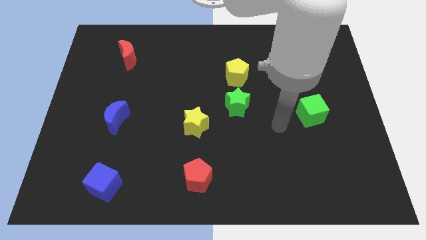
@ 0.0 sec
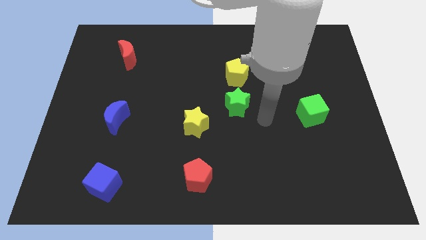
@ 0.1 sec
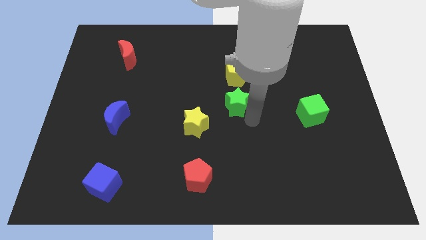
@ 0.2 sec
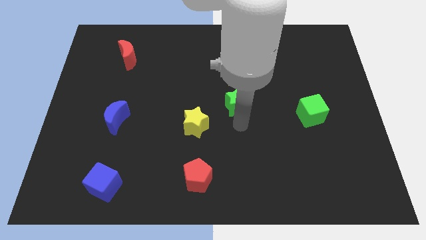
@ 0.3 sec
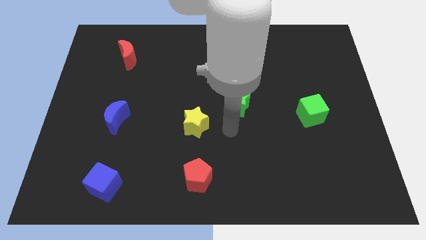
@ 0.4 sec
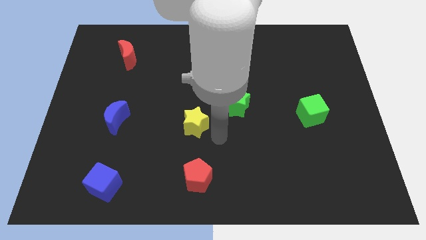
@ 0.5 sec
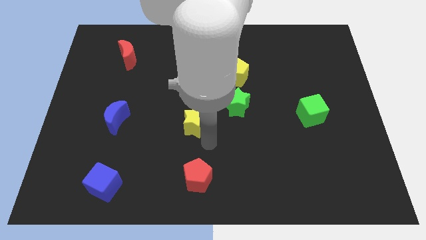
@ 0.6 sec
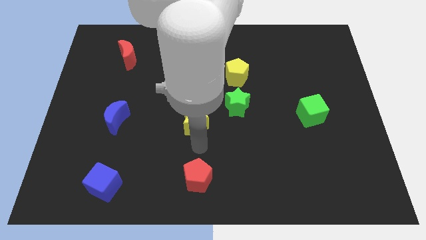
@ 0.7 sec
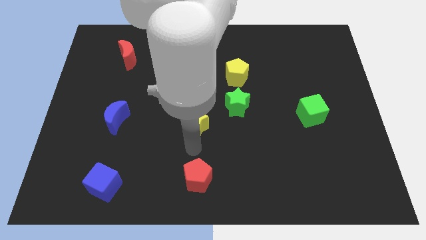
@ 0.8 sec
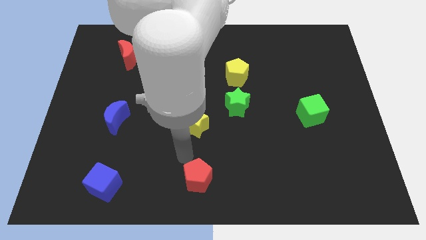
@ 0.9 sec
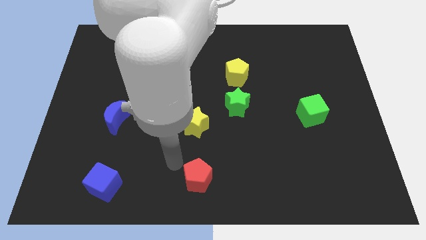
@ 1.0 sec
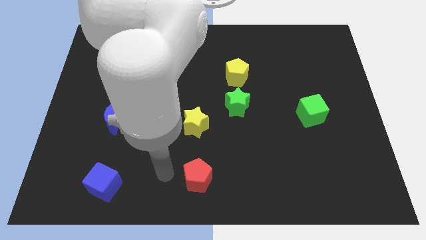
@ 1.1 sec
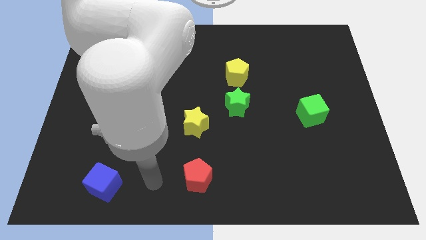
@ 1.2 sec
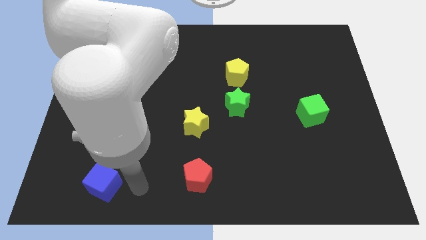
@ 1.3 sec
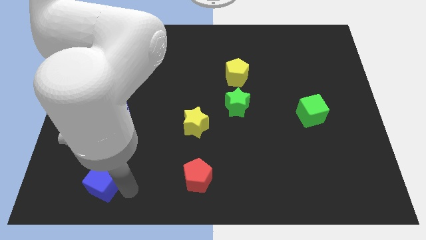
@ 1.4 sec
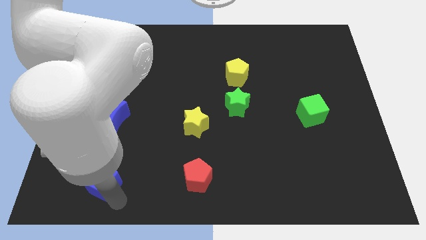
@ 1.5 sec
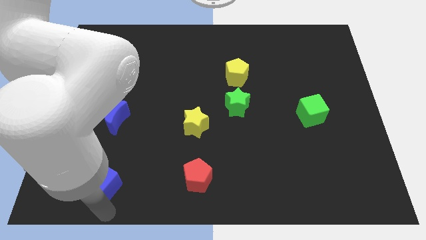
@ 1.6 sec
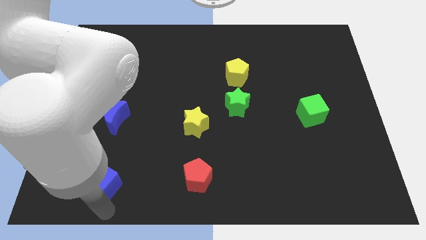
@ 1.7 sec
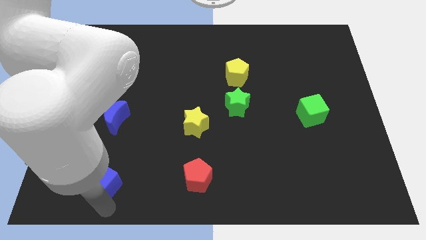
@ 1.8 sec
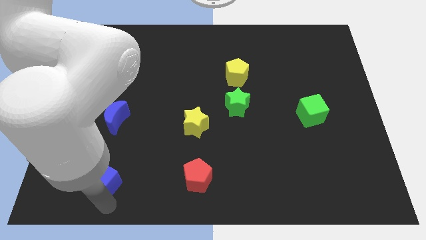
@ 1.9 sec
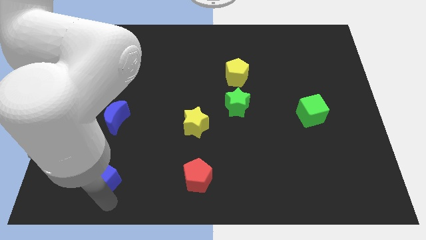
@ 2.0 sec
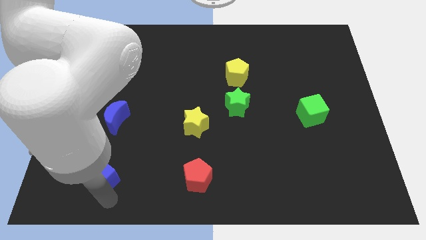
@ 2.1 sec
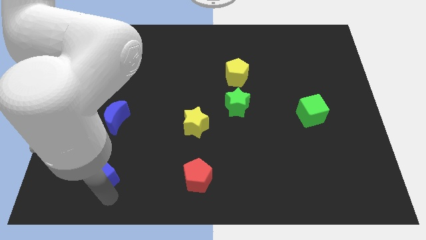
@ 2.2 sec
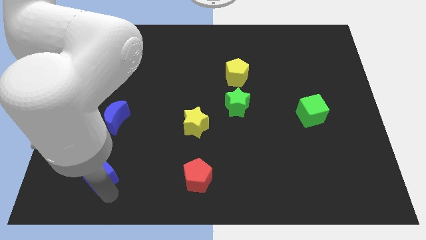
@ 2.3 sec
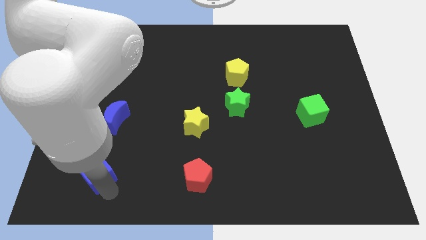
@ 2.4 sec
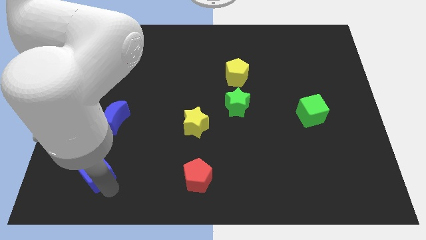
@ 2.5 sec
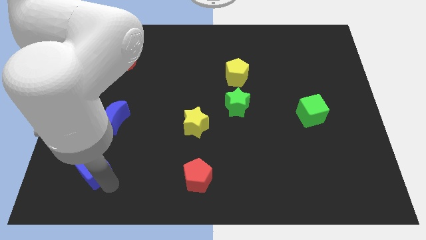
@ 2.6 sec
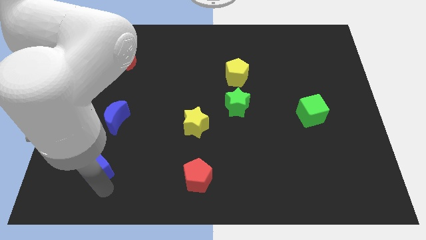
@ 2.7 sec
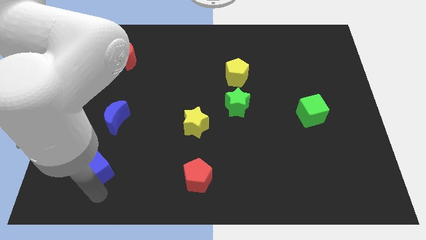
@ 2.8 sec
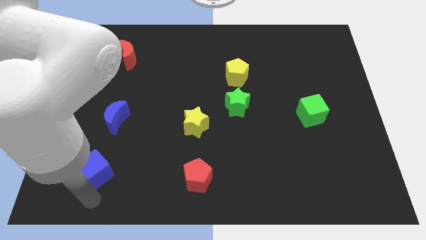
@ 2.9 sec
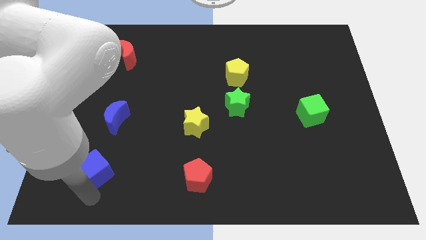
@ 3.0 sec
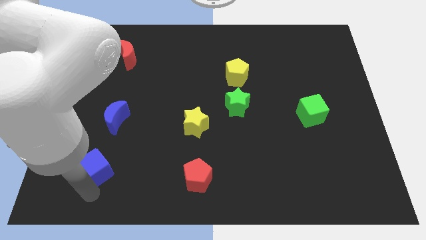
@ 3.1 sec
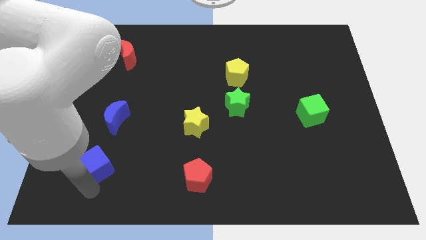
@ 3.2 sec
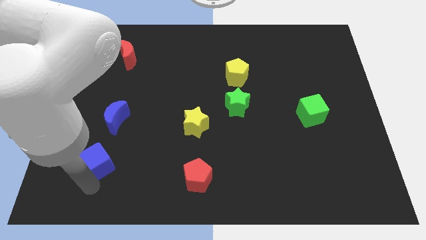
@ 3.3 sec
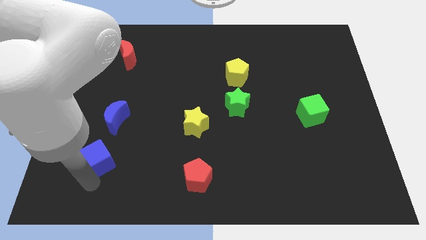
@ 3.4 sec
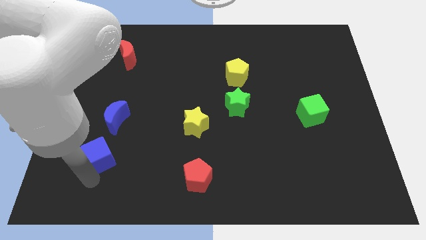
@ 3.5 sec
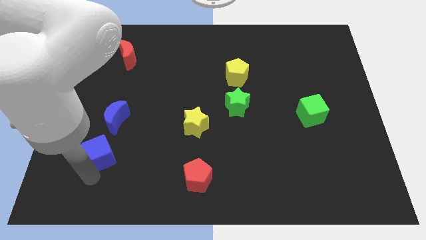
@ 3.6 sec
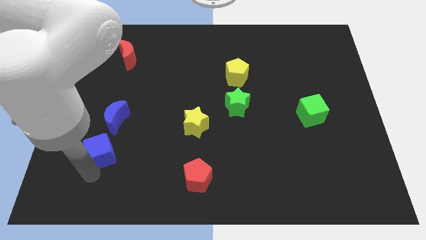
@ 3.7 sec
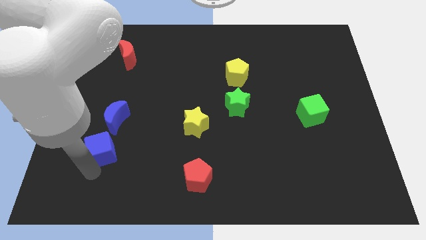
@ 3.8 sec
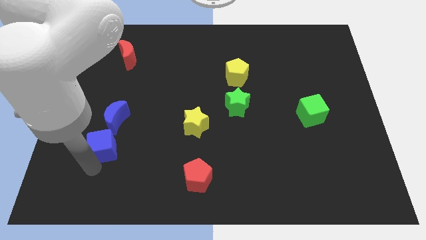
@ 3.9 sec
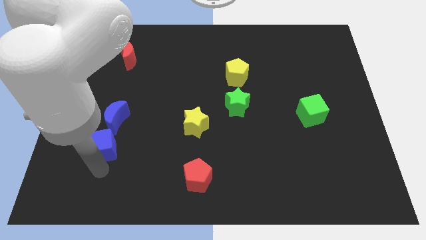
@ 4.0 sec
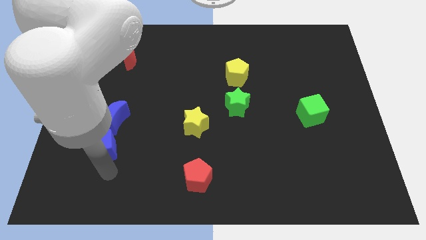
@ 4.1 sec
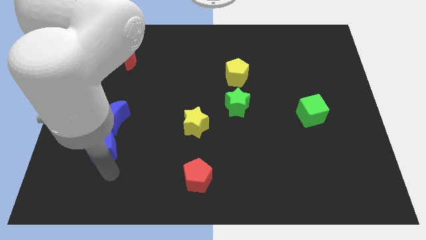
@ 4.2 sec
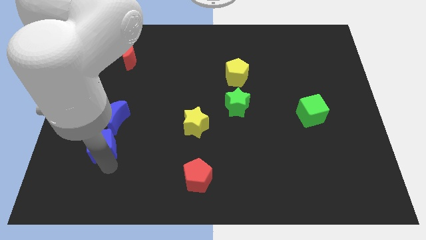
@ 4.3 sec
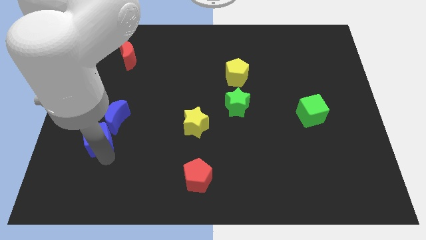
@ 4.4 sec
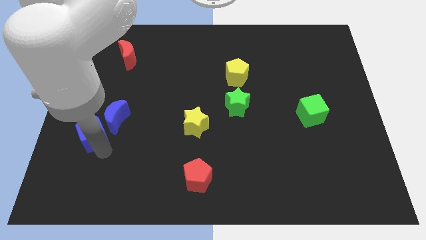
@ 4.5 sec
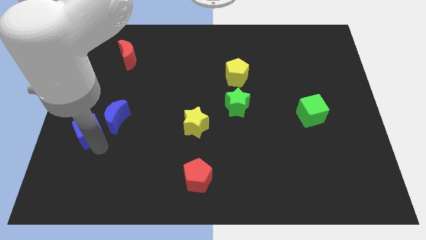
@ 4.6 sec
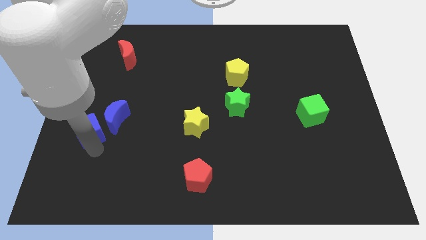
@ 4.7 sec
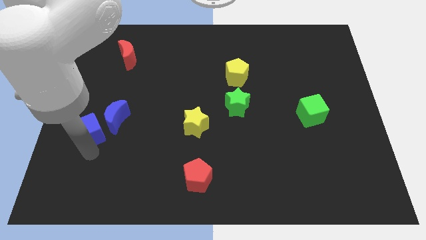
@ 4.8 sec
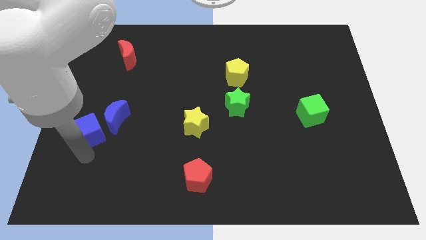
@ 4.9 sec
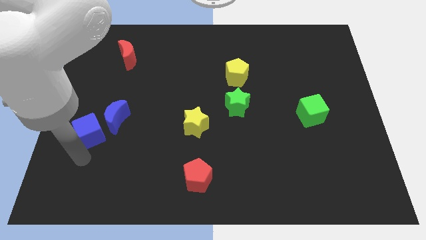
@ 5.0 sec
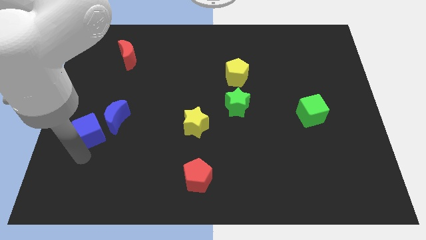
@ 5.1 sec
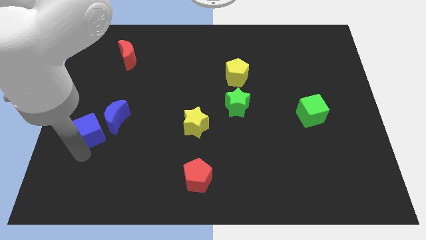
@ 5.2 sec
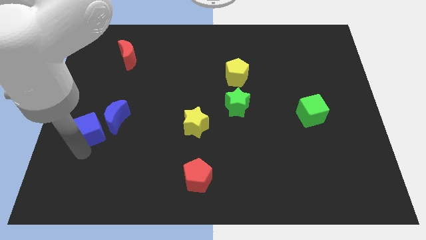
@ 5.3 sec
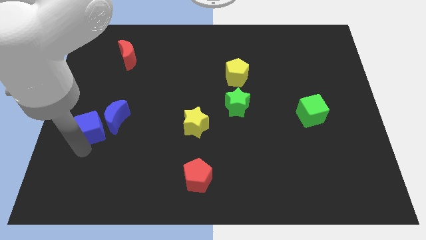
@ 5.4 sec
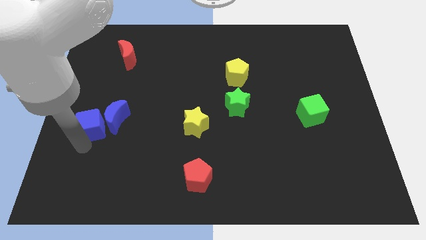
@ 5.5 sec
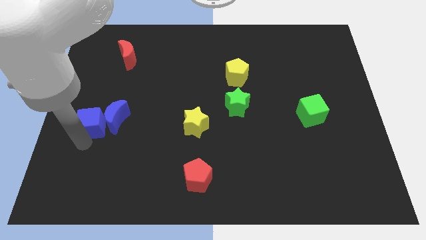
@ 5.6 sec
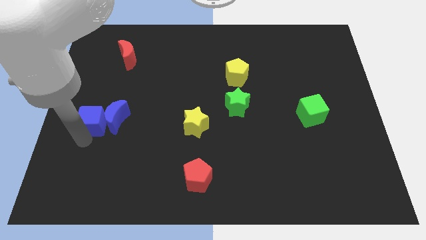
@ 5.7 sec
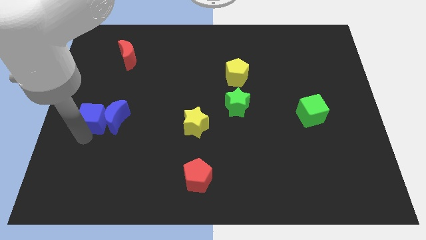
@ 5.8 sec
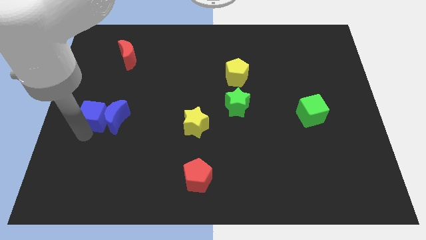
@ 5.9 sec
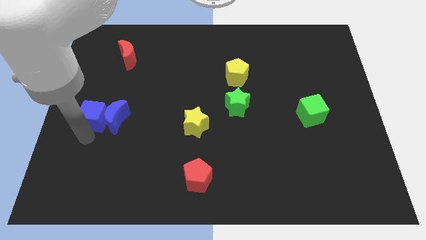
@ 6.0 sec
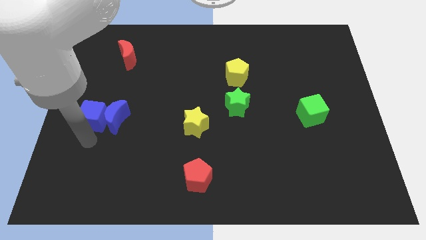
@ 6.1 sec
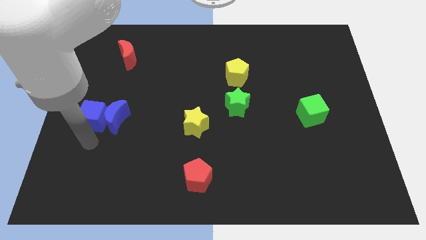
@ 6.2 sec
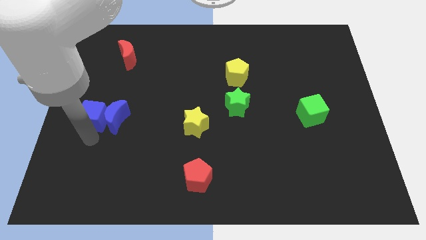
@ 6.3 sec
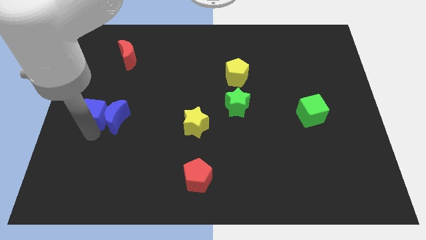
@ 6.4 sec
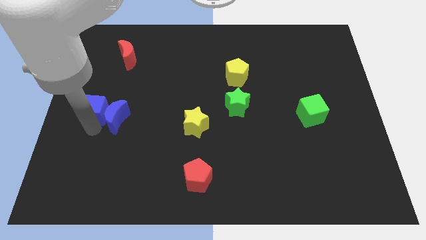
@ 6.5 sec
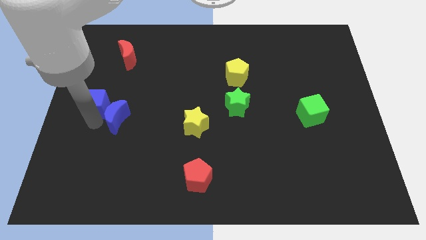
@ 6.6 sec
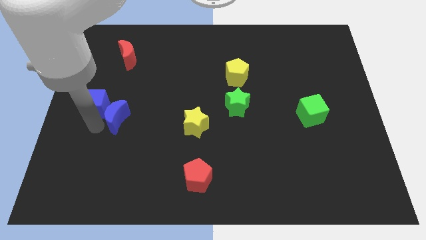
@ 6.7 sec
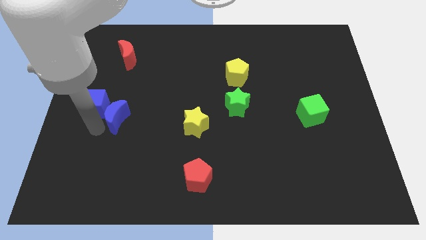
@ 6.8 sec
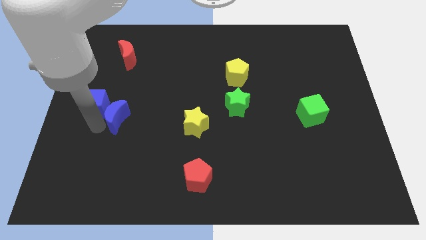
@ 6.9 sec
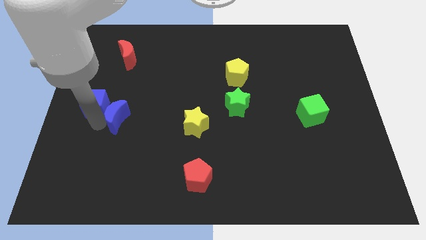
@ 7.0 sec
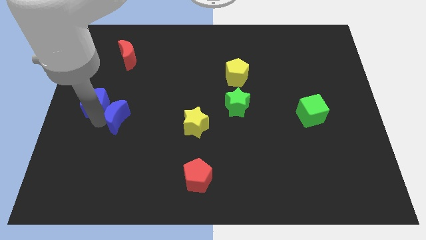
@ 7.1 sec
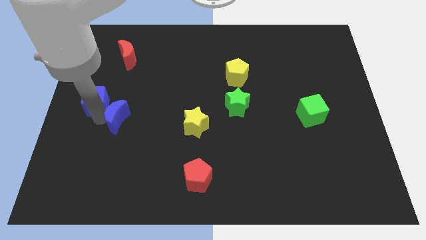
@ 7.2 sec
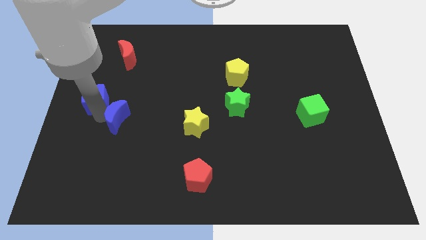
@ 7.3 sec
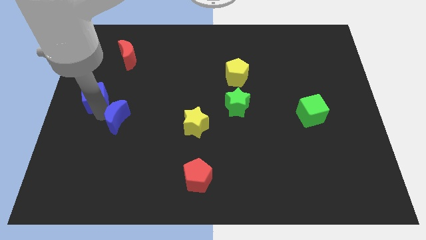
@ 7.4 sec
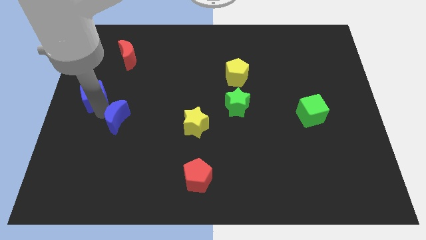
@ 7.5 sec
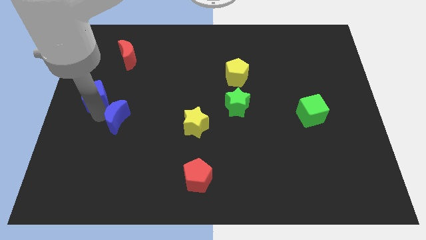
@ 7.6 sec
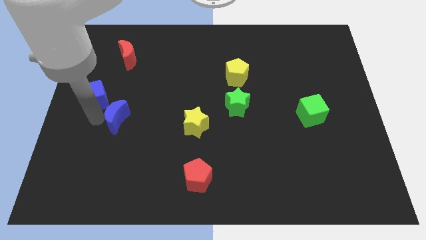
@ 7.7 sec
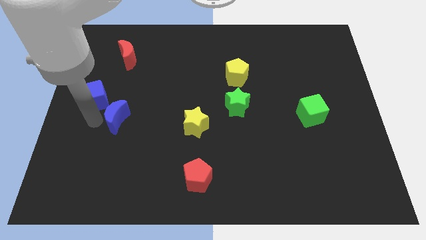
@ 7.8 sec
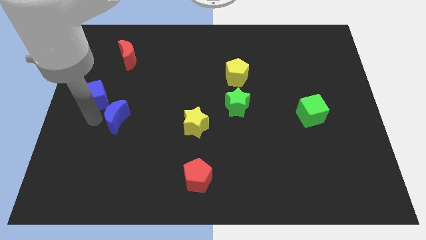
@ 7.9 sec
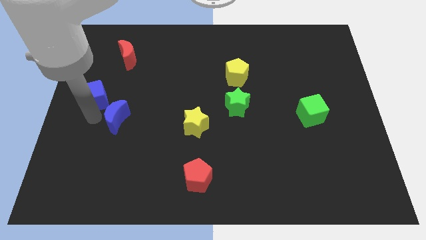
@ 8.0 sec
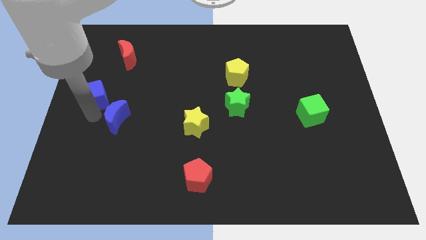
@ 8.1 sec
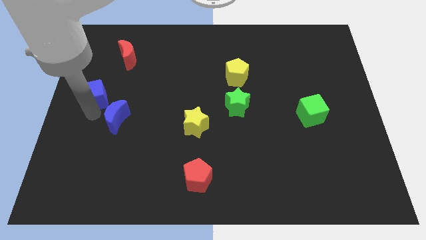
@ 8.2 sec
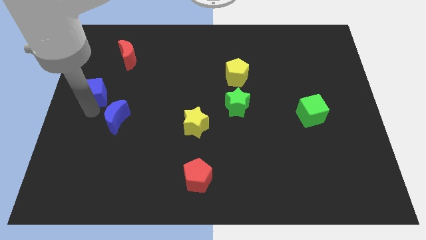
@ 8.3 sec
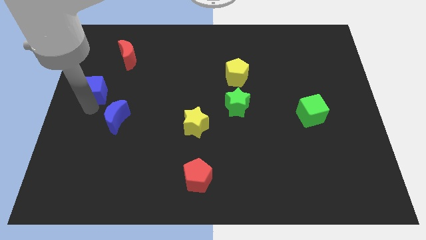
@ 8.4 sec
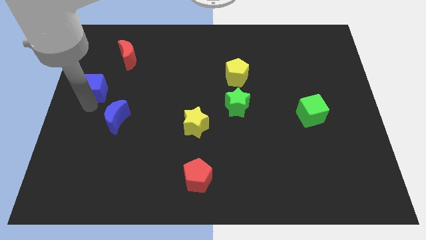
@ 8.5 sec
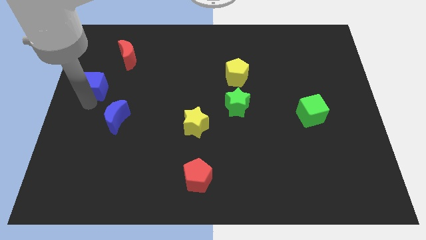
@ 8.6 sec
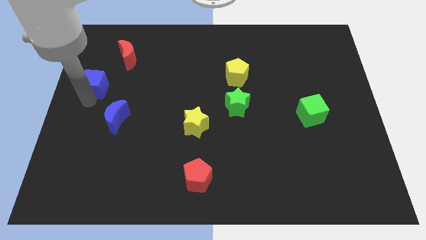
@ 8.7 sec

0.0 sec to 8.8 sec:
slide the blue cube diagonally down and to the left of the red moon
